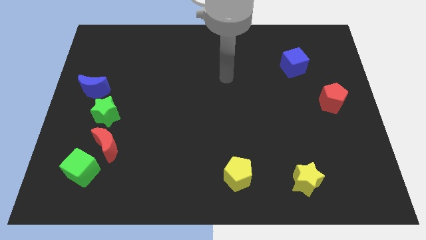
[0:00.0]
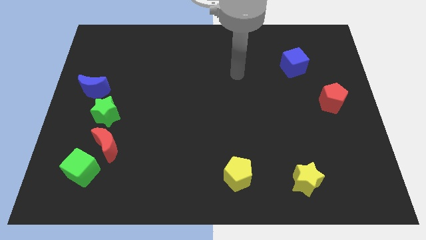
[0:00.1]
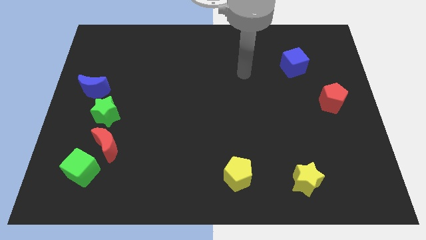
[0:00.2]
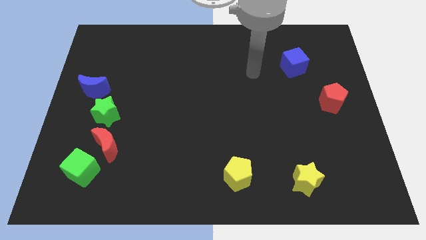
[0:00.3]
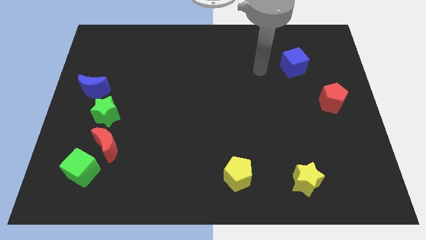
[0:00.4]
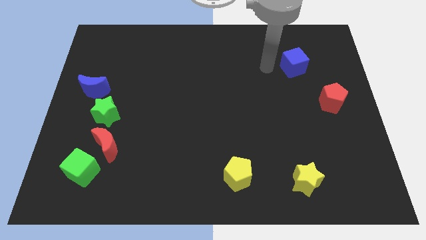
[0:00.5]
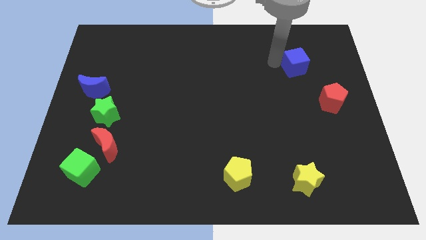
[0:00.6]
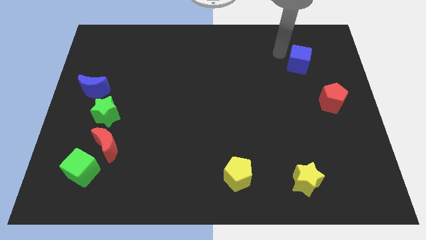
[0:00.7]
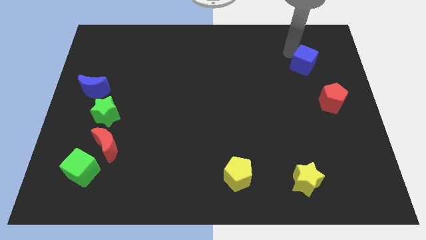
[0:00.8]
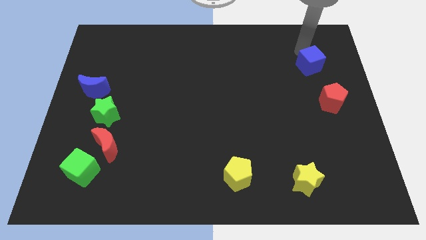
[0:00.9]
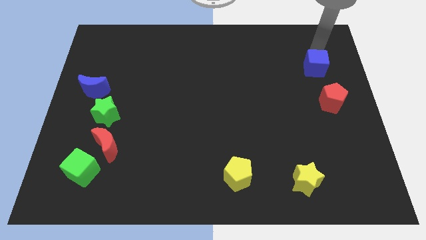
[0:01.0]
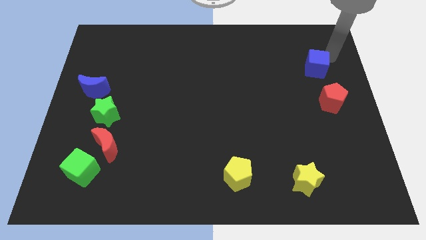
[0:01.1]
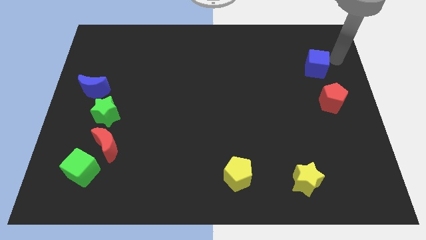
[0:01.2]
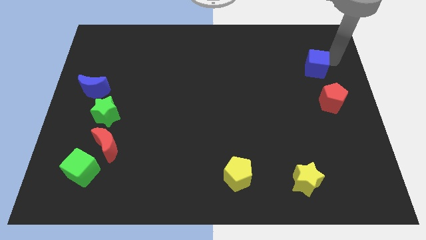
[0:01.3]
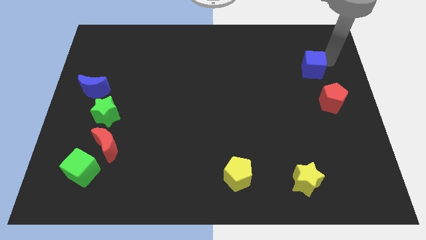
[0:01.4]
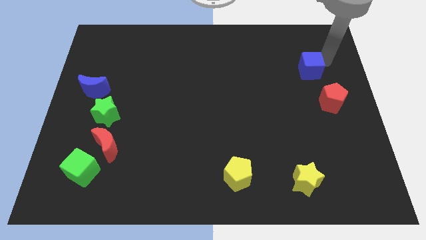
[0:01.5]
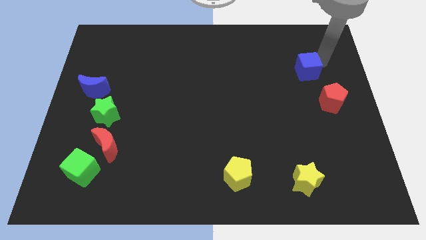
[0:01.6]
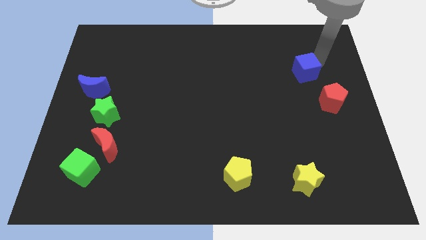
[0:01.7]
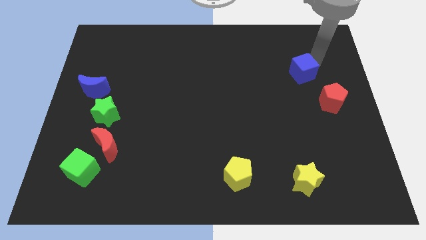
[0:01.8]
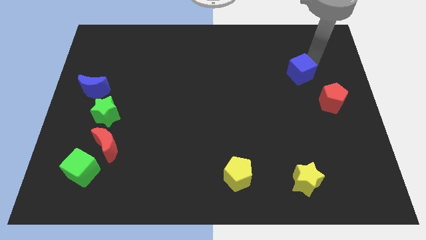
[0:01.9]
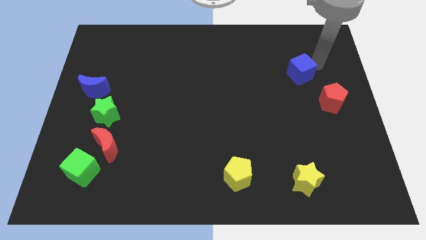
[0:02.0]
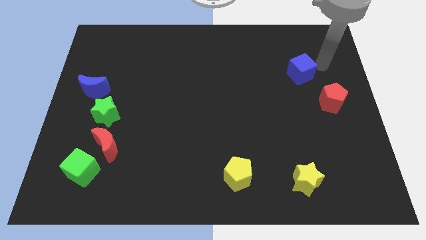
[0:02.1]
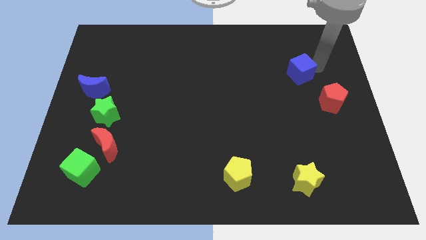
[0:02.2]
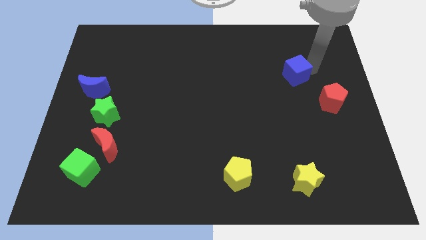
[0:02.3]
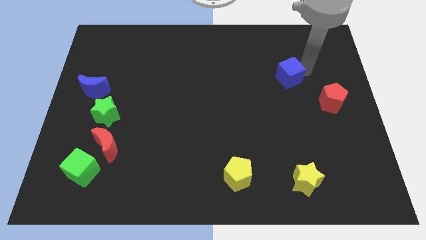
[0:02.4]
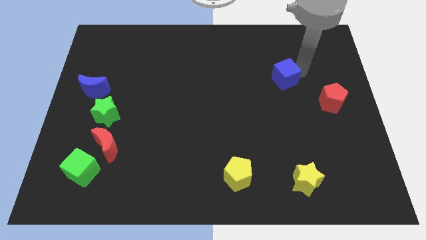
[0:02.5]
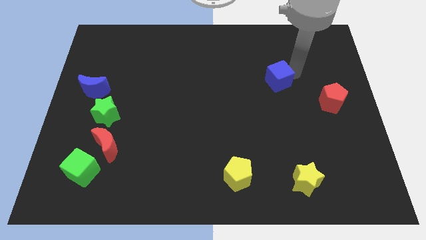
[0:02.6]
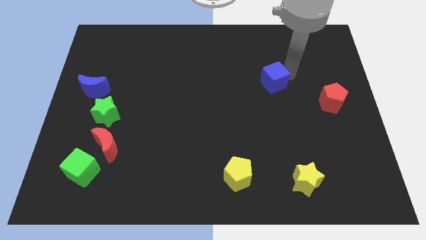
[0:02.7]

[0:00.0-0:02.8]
slightly push the blue cube downwards and left

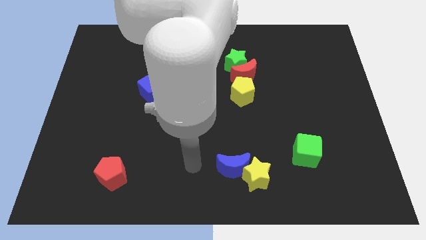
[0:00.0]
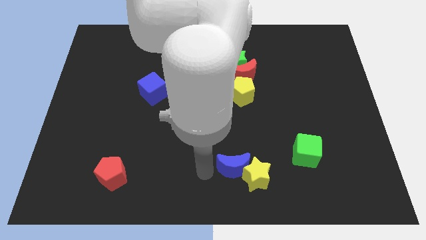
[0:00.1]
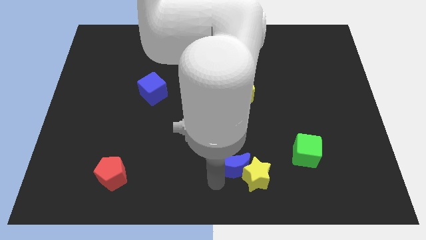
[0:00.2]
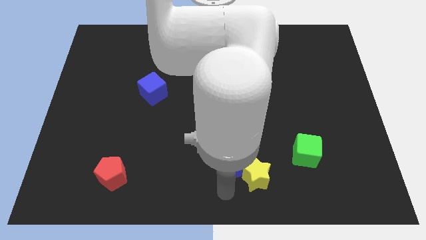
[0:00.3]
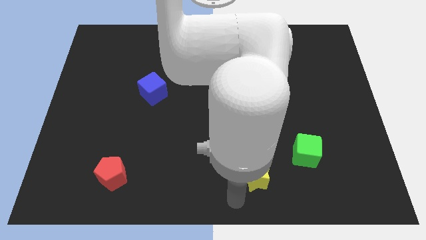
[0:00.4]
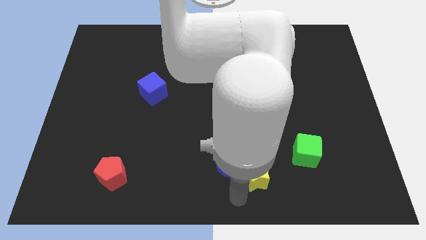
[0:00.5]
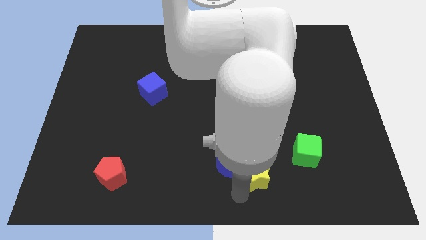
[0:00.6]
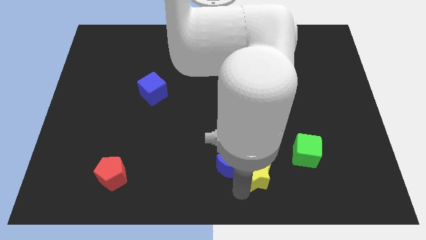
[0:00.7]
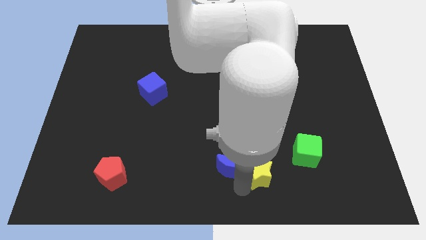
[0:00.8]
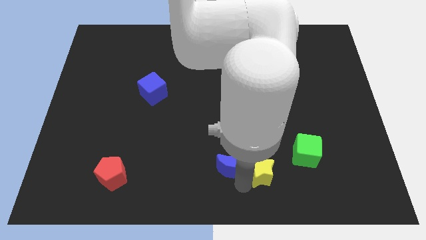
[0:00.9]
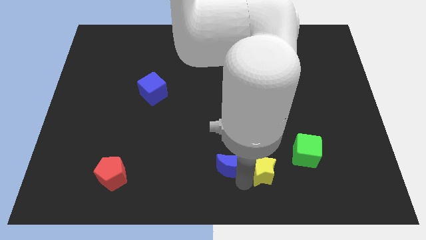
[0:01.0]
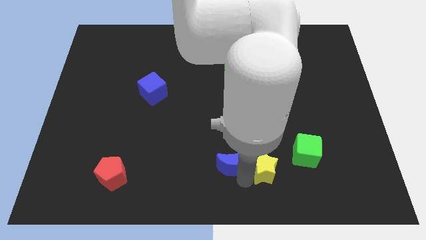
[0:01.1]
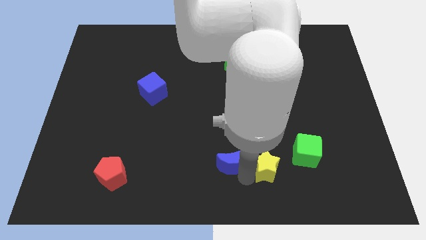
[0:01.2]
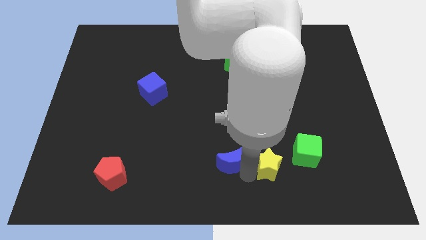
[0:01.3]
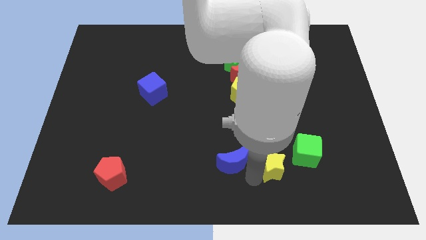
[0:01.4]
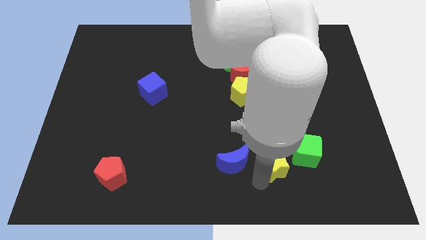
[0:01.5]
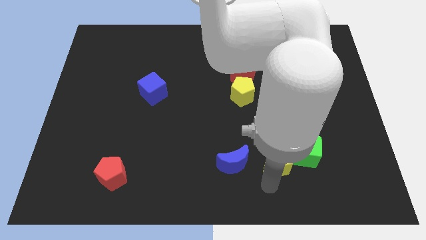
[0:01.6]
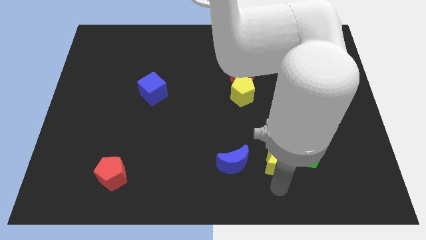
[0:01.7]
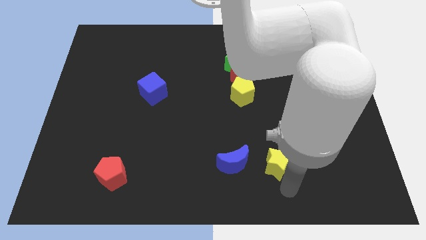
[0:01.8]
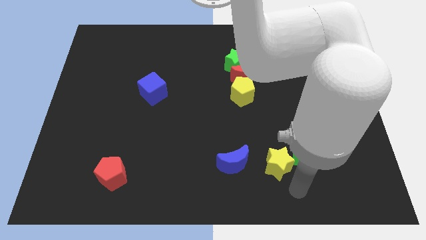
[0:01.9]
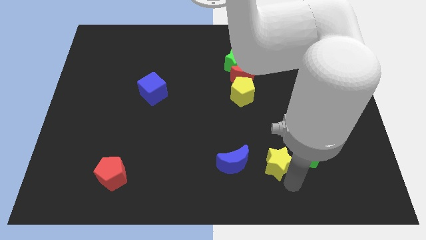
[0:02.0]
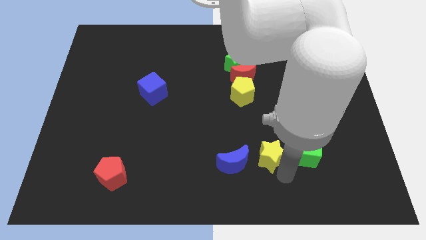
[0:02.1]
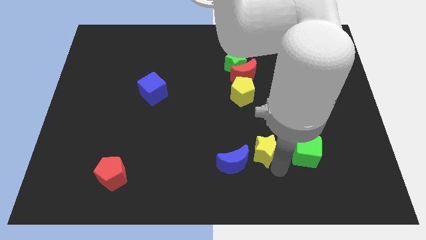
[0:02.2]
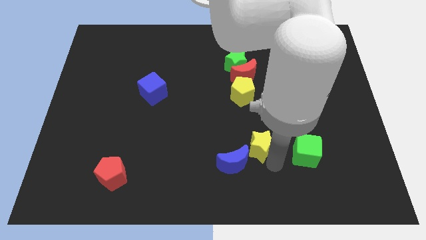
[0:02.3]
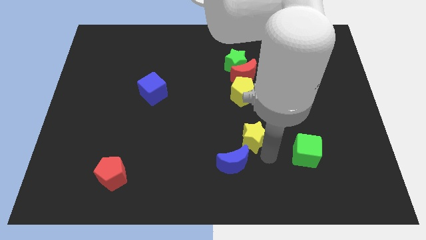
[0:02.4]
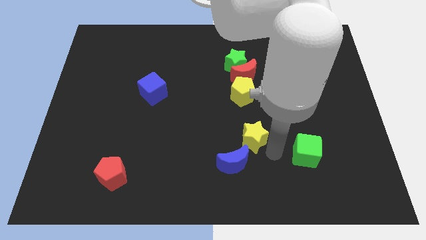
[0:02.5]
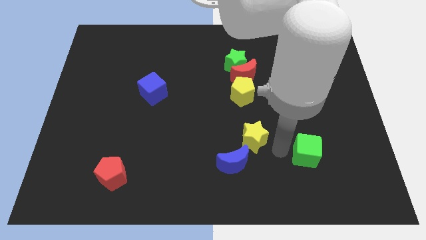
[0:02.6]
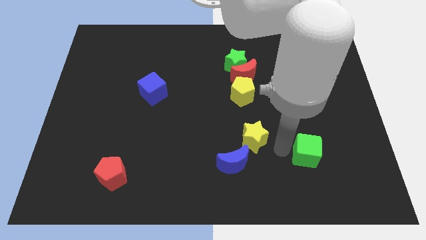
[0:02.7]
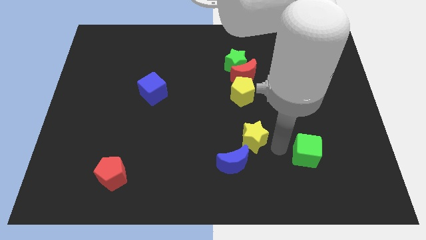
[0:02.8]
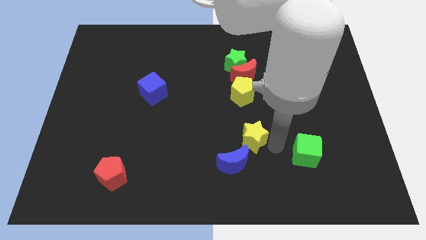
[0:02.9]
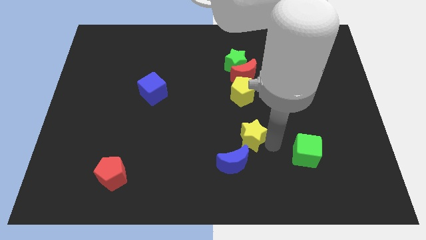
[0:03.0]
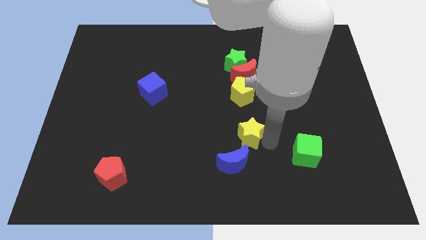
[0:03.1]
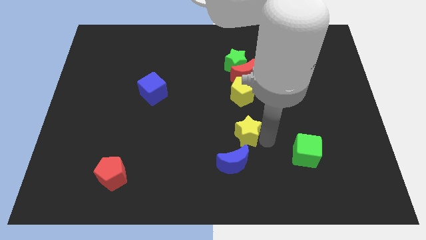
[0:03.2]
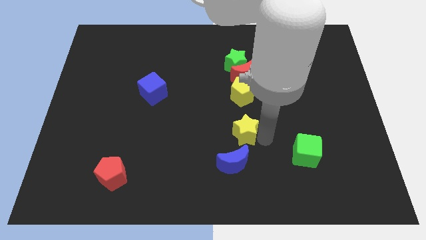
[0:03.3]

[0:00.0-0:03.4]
slightly move the yellow star up and left diagonally

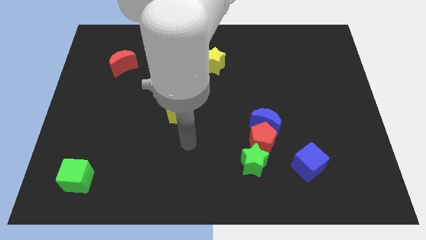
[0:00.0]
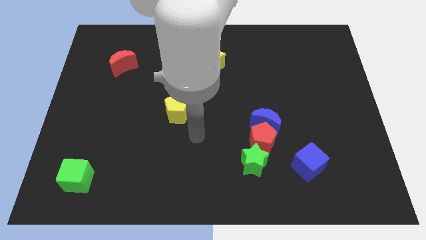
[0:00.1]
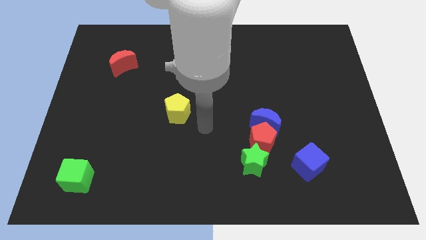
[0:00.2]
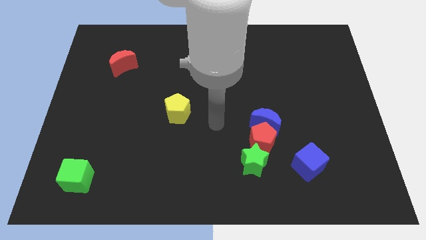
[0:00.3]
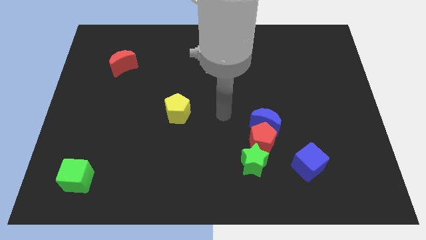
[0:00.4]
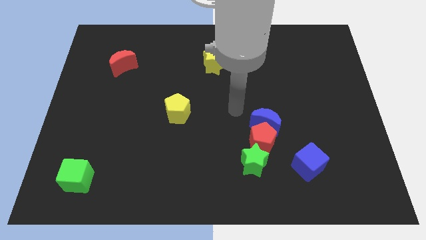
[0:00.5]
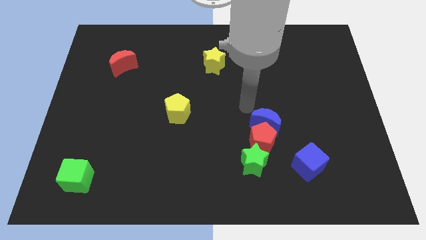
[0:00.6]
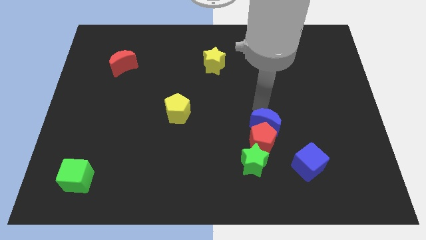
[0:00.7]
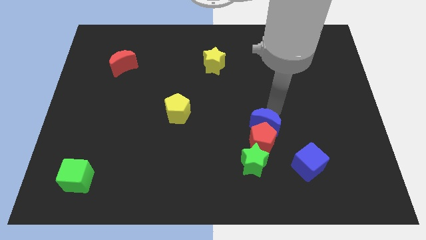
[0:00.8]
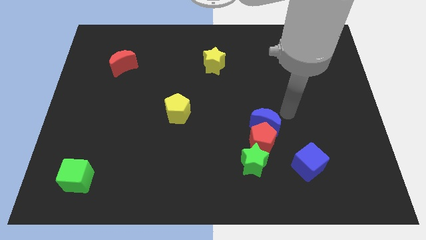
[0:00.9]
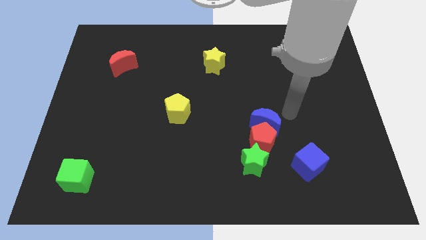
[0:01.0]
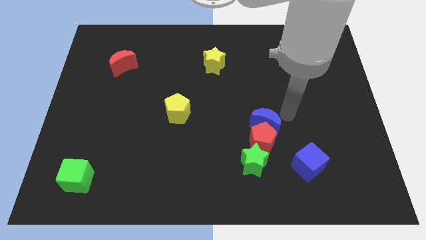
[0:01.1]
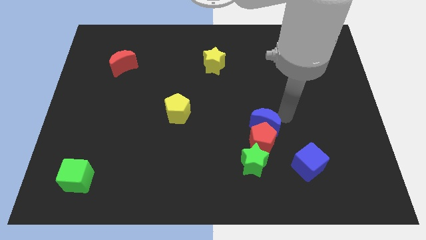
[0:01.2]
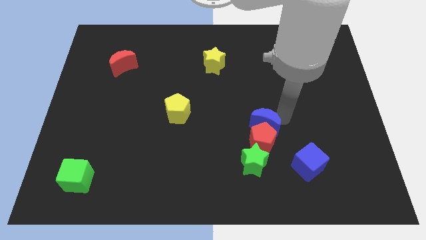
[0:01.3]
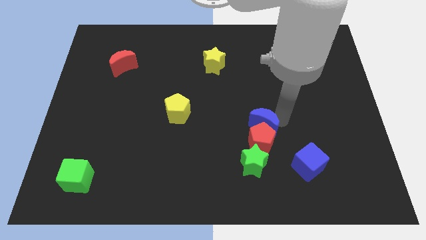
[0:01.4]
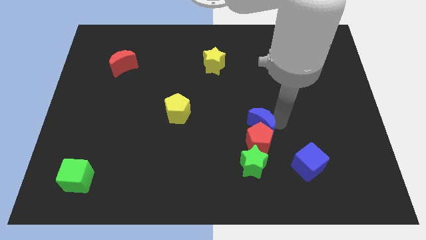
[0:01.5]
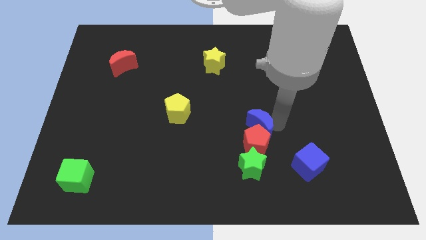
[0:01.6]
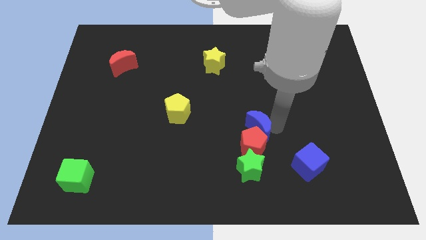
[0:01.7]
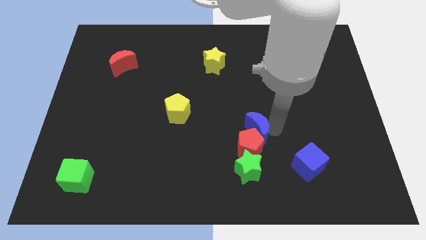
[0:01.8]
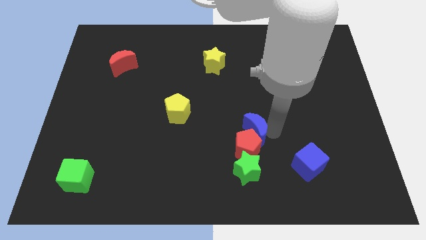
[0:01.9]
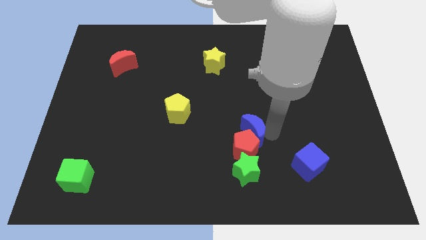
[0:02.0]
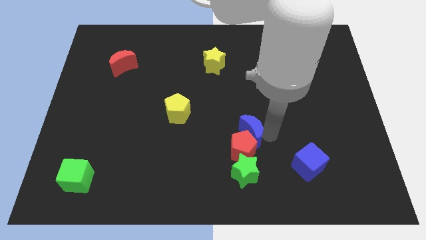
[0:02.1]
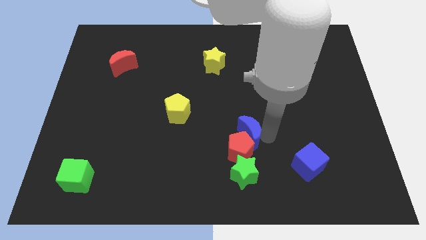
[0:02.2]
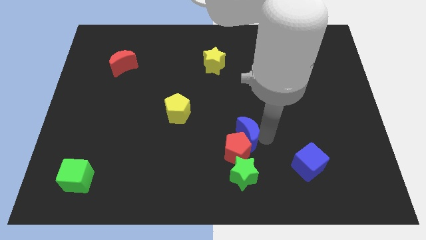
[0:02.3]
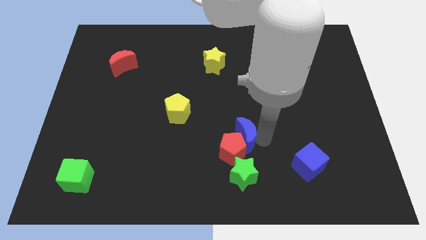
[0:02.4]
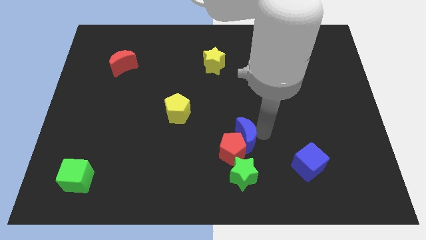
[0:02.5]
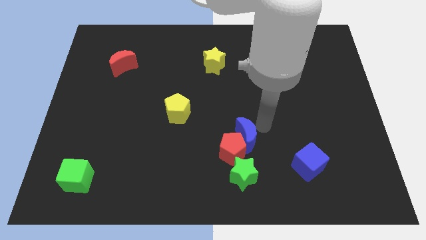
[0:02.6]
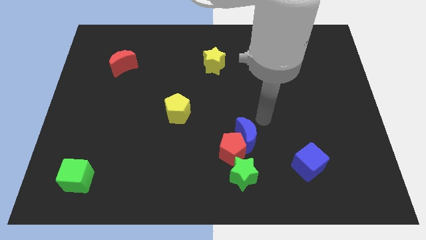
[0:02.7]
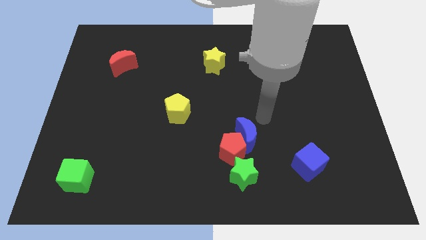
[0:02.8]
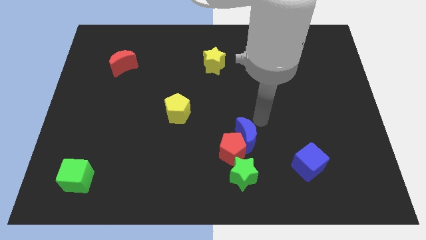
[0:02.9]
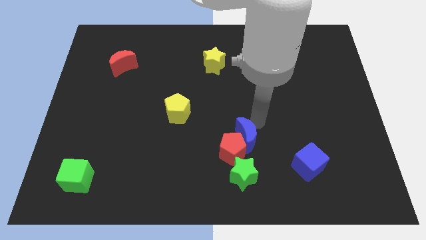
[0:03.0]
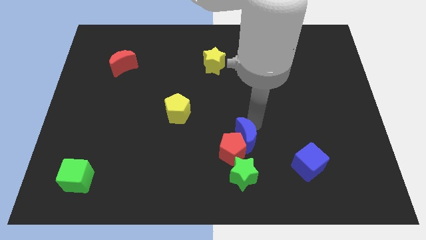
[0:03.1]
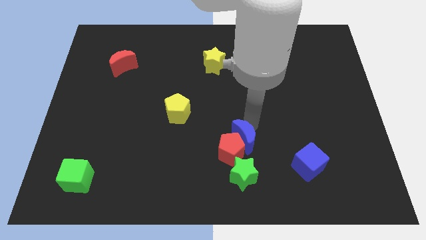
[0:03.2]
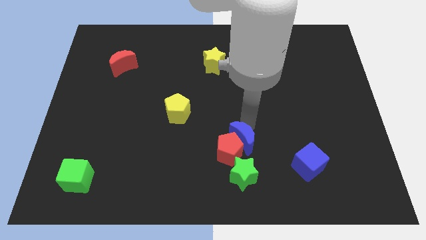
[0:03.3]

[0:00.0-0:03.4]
slide the blue moon a bit downwards and left
